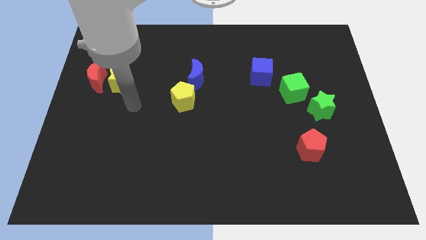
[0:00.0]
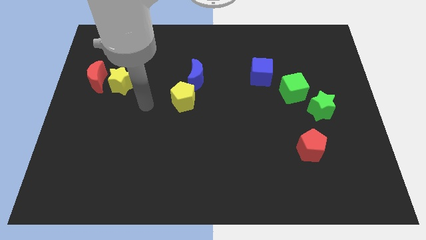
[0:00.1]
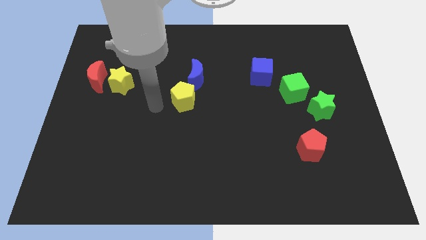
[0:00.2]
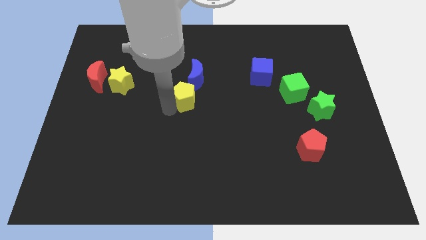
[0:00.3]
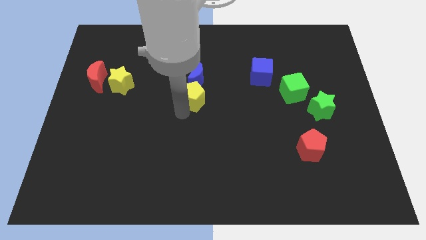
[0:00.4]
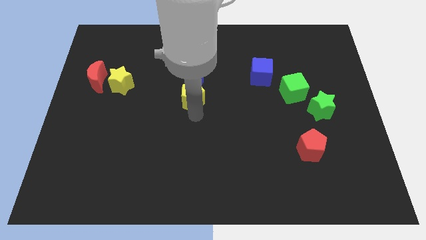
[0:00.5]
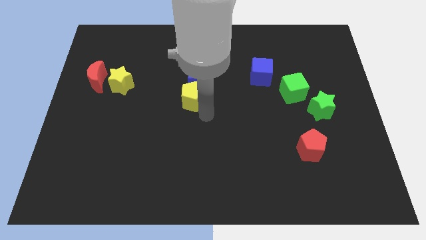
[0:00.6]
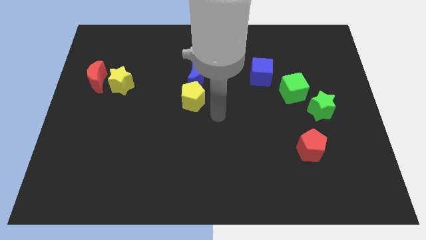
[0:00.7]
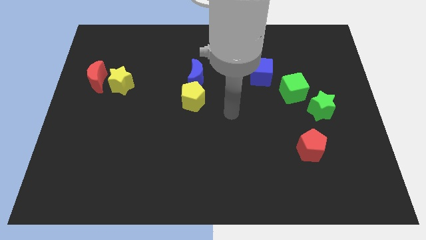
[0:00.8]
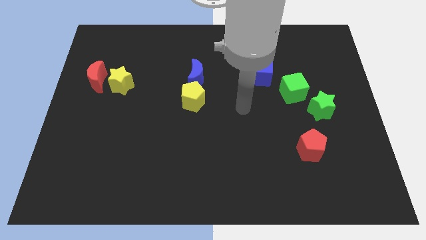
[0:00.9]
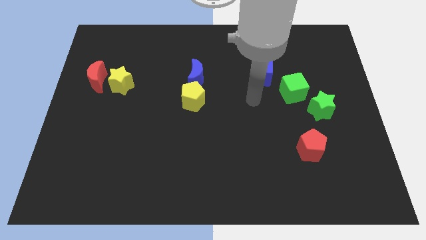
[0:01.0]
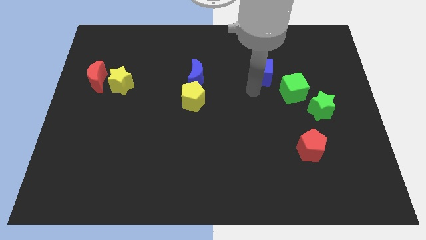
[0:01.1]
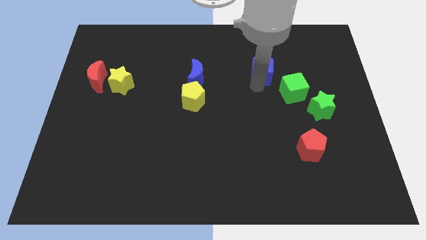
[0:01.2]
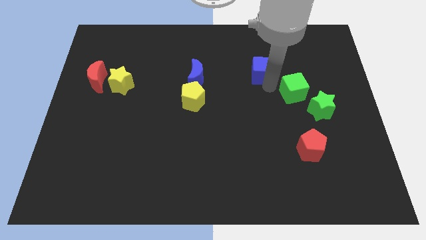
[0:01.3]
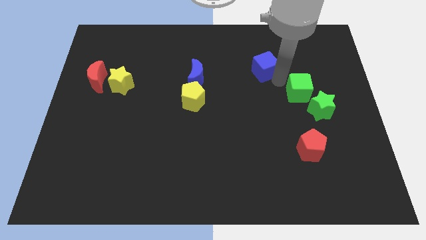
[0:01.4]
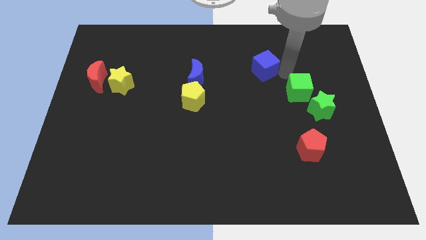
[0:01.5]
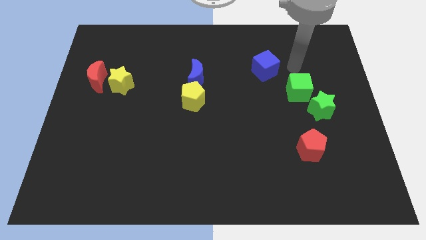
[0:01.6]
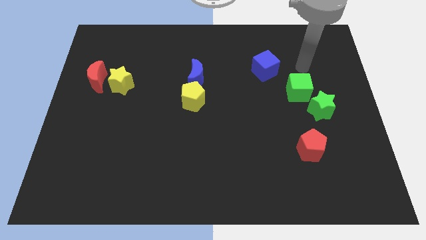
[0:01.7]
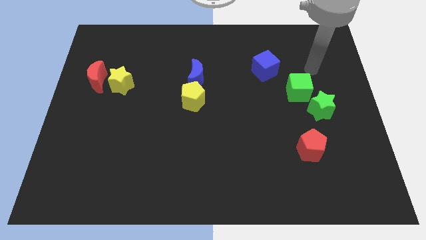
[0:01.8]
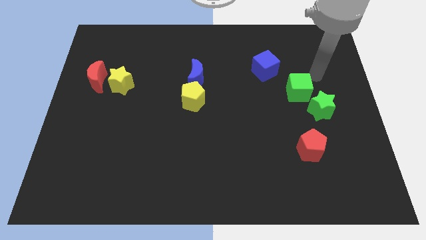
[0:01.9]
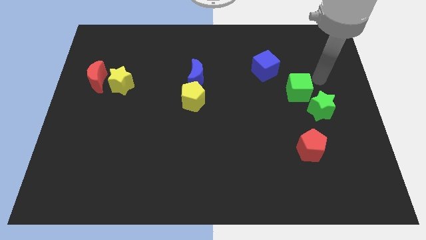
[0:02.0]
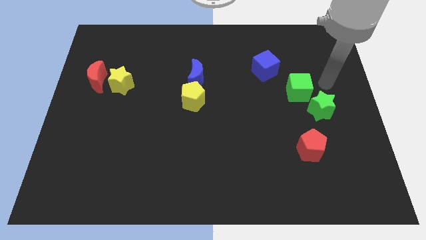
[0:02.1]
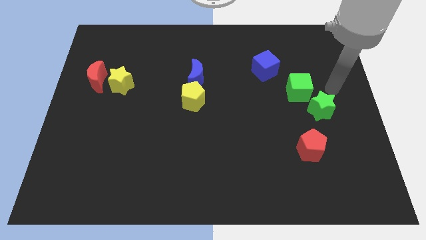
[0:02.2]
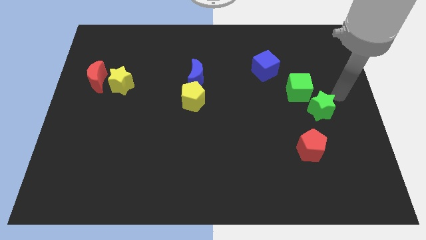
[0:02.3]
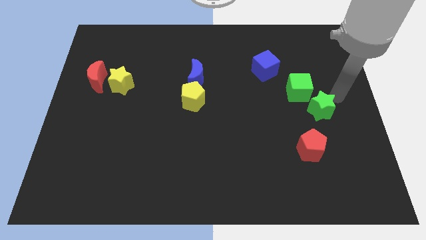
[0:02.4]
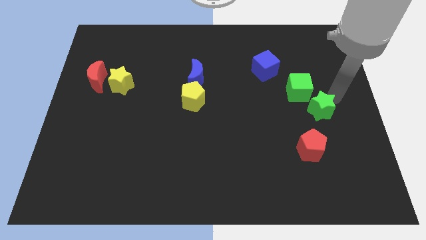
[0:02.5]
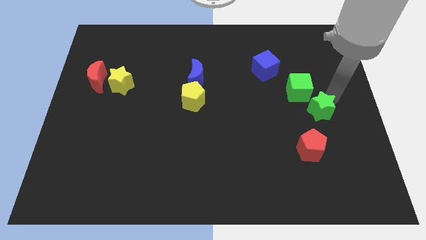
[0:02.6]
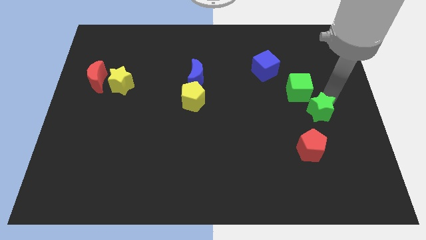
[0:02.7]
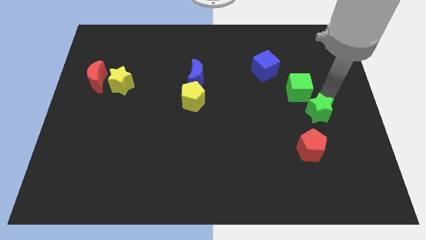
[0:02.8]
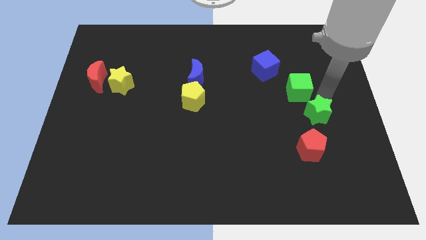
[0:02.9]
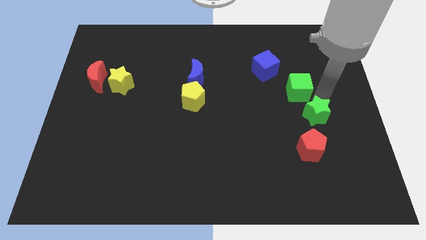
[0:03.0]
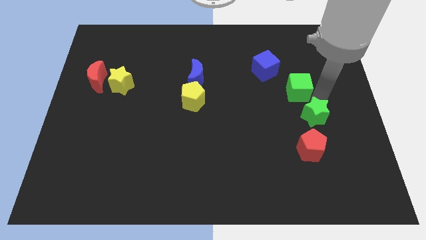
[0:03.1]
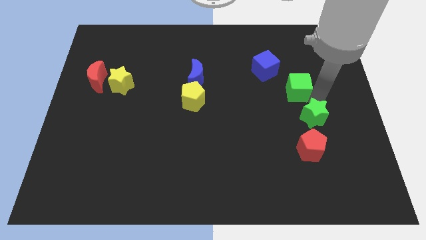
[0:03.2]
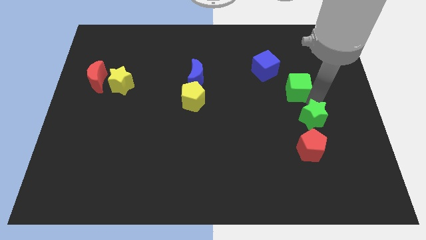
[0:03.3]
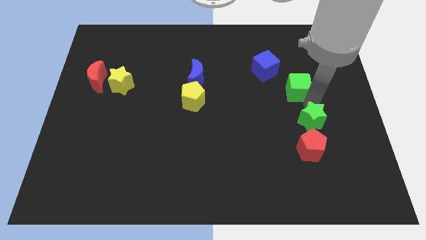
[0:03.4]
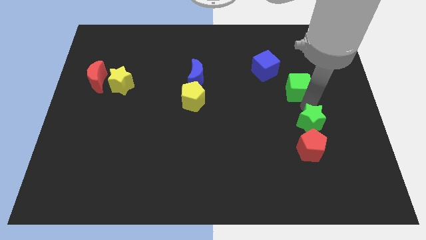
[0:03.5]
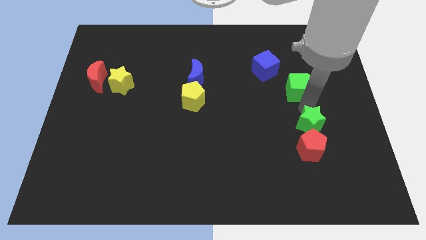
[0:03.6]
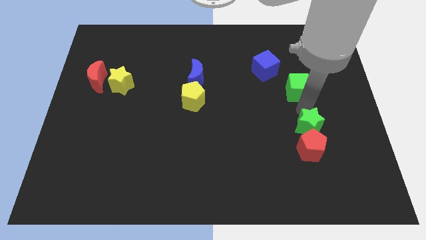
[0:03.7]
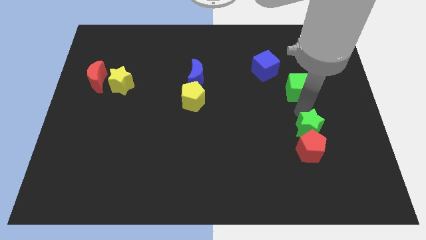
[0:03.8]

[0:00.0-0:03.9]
move the green star a little bit diagonally downwards and to the left

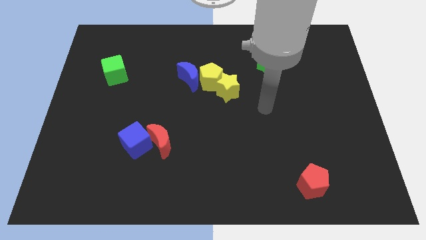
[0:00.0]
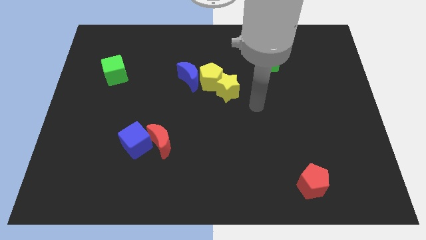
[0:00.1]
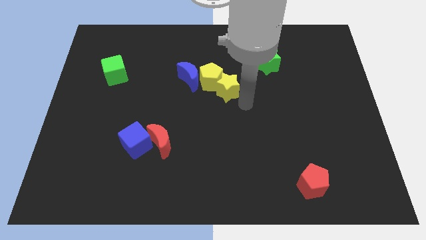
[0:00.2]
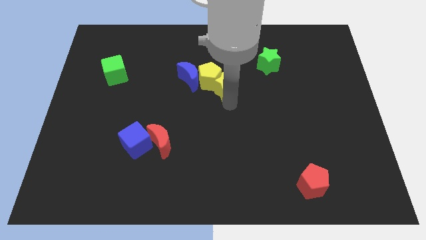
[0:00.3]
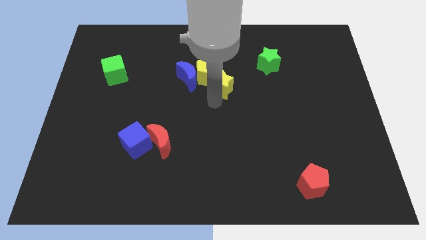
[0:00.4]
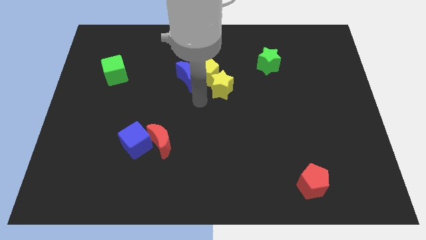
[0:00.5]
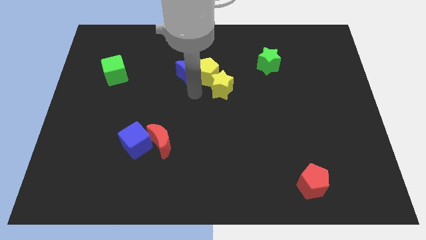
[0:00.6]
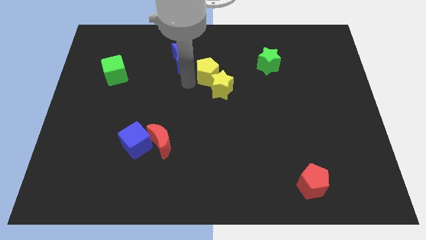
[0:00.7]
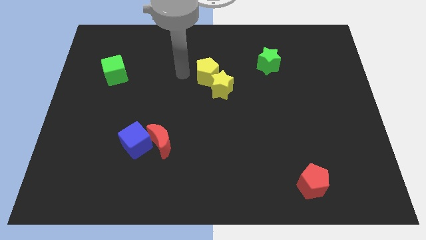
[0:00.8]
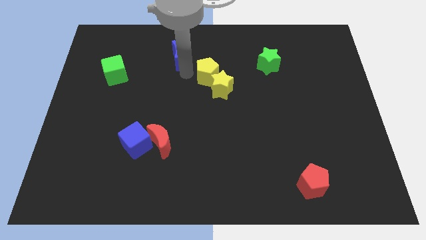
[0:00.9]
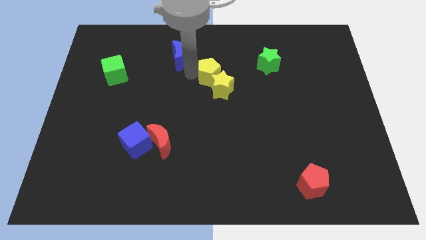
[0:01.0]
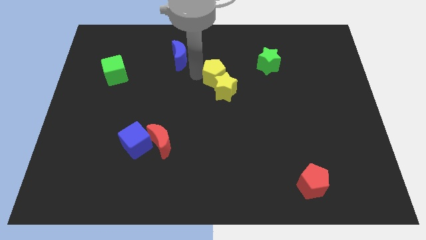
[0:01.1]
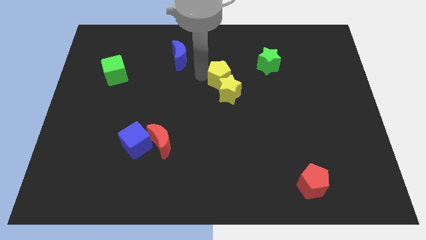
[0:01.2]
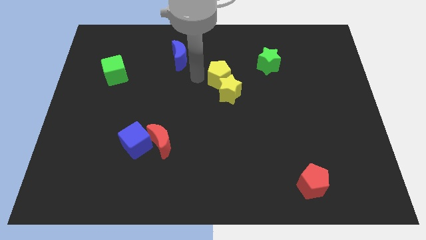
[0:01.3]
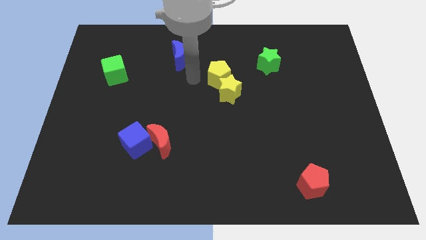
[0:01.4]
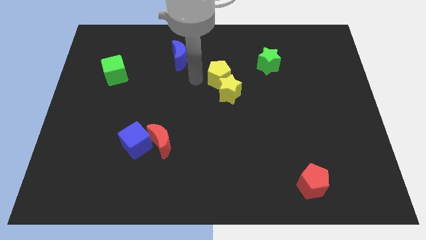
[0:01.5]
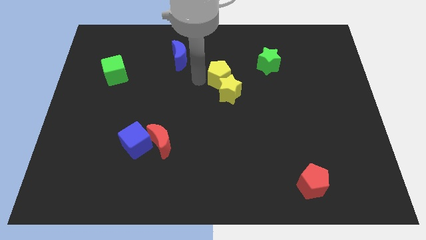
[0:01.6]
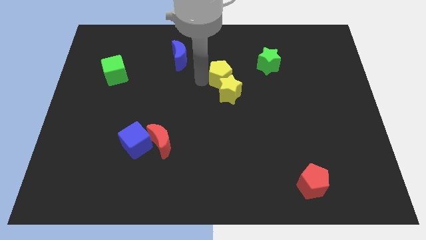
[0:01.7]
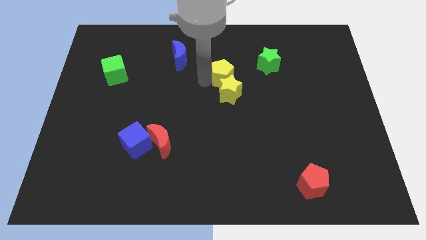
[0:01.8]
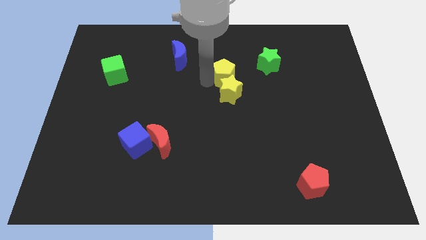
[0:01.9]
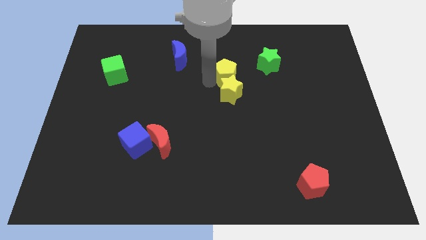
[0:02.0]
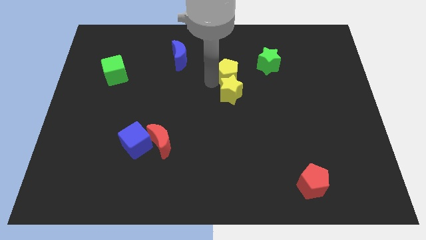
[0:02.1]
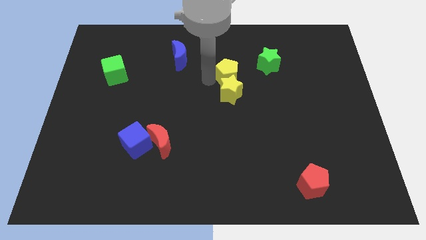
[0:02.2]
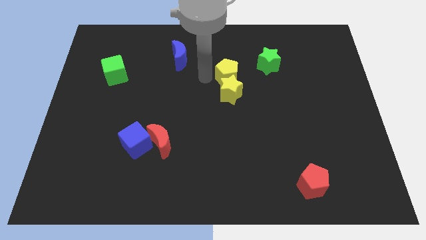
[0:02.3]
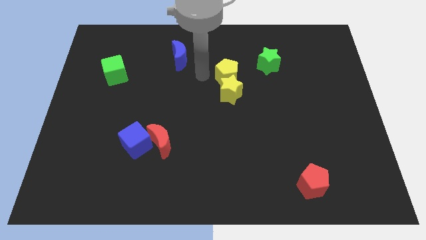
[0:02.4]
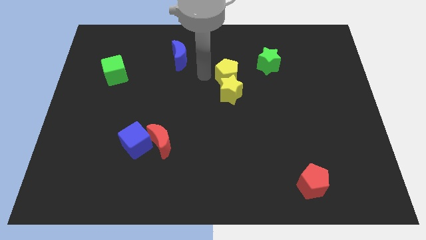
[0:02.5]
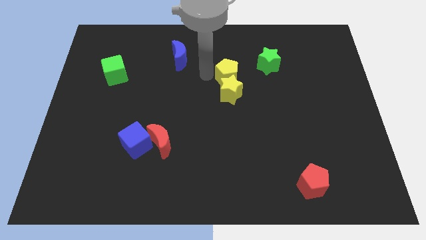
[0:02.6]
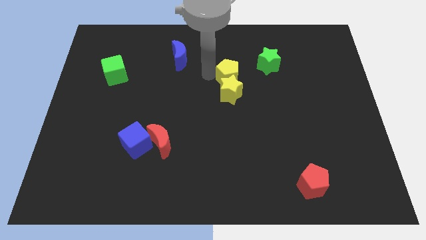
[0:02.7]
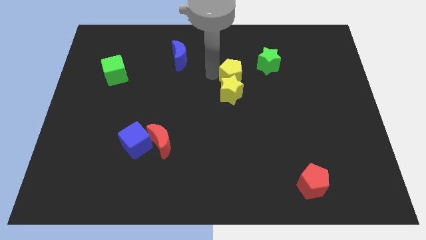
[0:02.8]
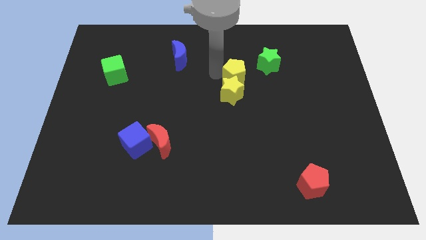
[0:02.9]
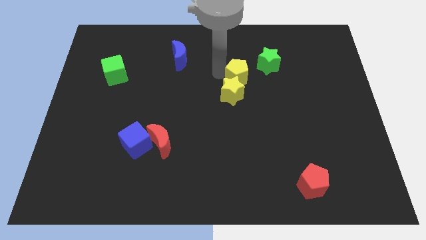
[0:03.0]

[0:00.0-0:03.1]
slightly push the yellow pentagon right

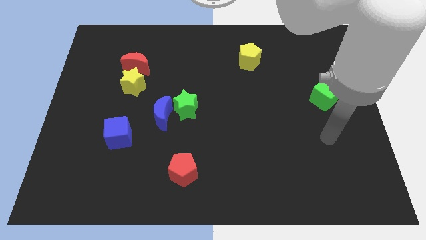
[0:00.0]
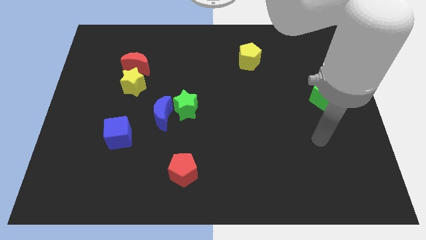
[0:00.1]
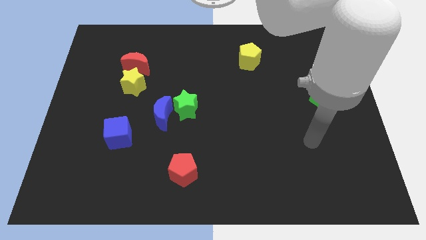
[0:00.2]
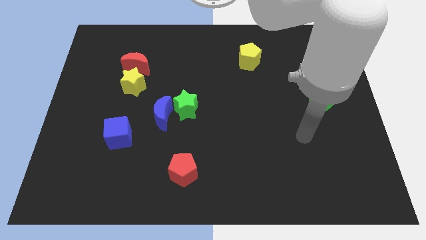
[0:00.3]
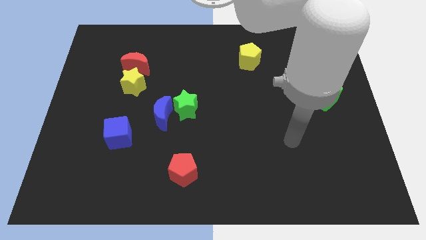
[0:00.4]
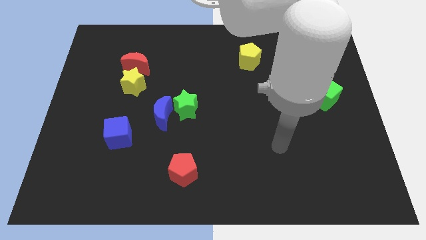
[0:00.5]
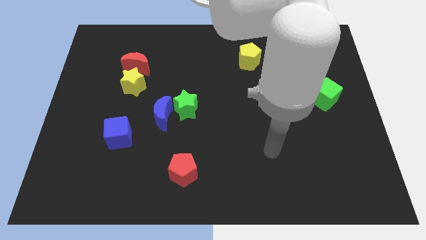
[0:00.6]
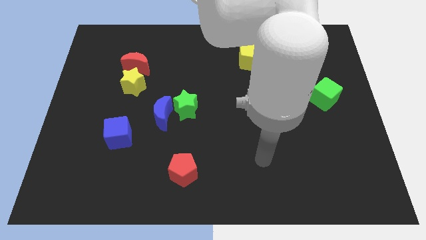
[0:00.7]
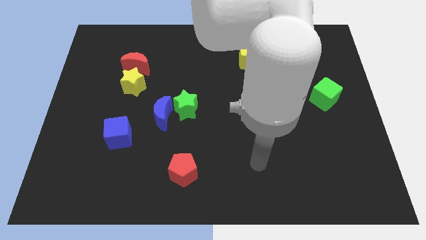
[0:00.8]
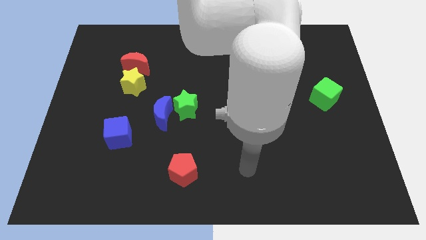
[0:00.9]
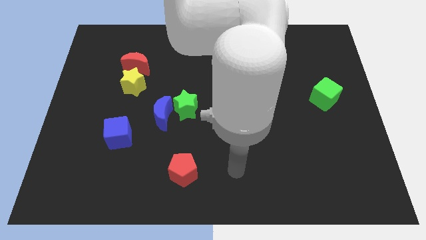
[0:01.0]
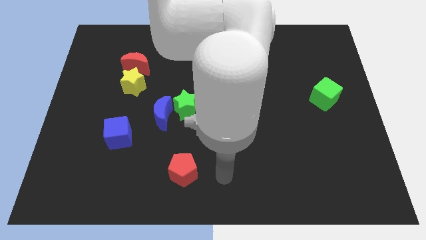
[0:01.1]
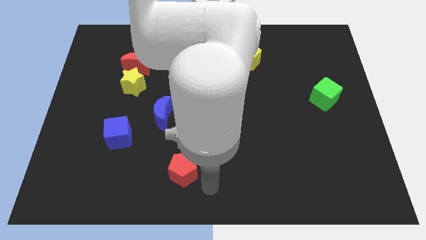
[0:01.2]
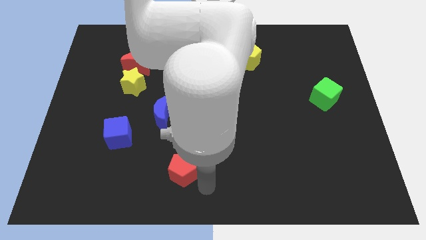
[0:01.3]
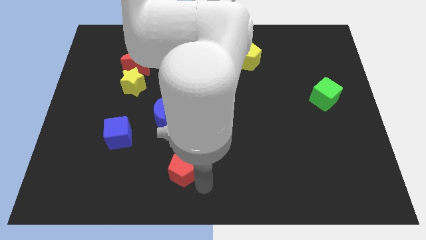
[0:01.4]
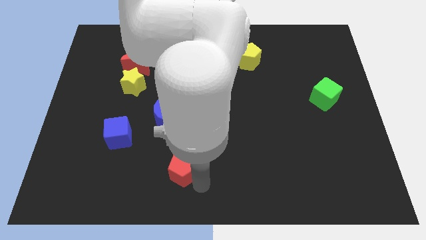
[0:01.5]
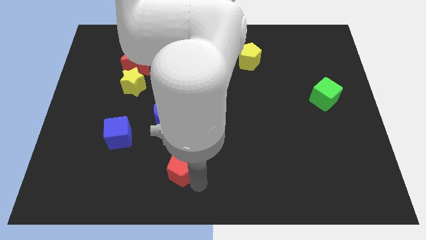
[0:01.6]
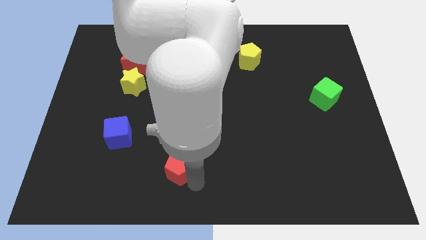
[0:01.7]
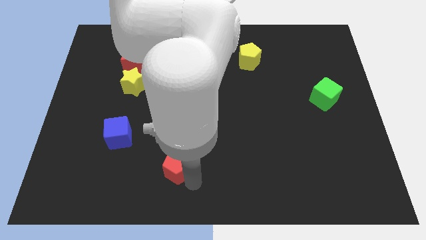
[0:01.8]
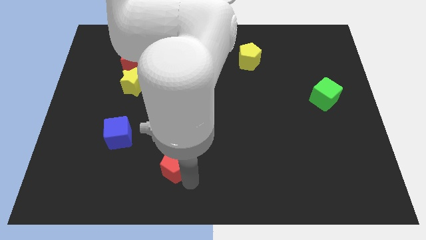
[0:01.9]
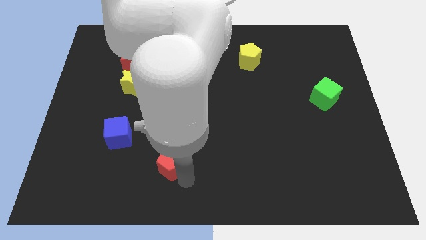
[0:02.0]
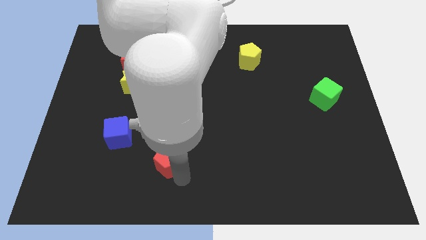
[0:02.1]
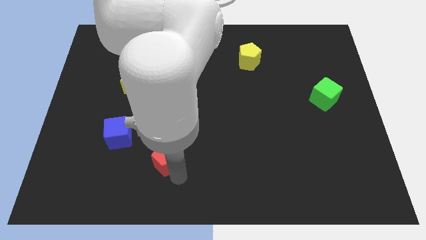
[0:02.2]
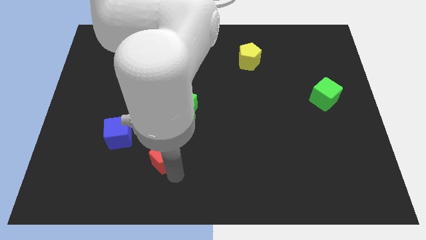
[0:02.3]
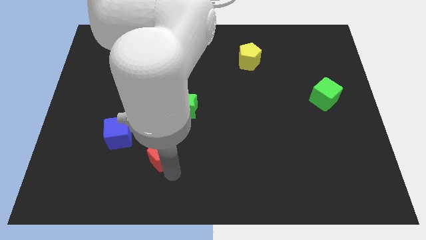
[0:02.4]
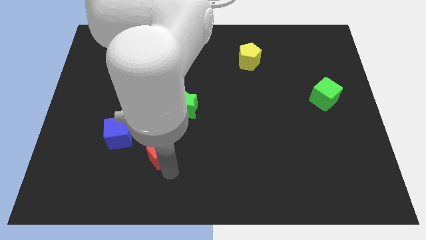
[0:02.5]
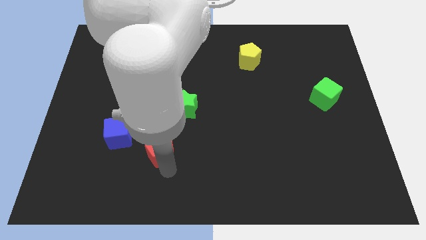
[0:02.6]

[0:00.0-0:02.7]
move the red pentagon somewhat diagonally up and left
